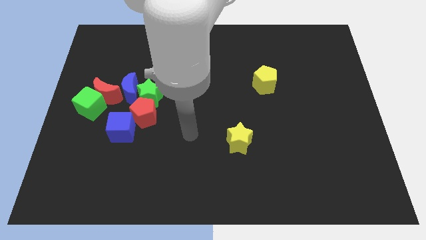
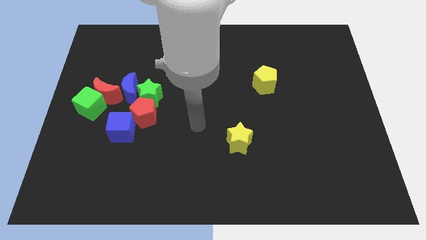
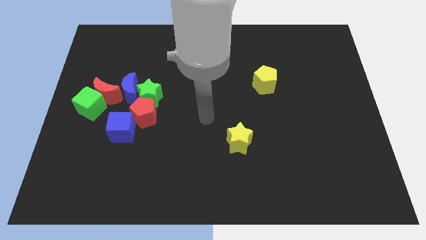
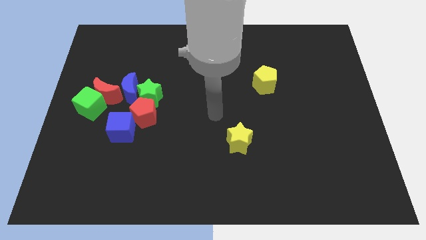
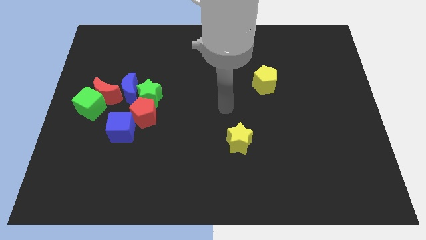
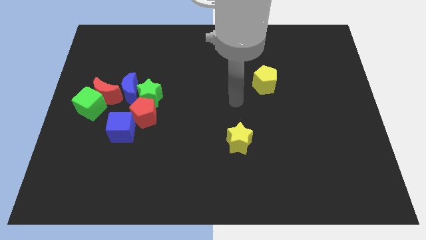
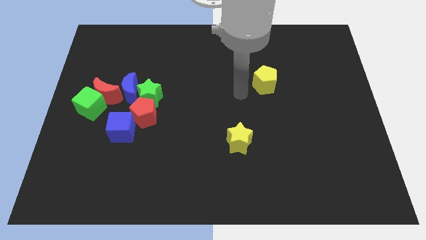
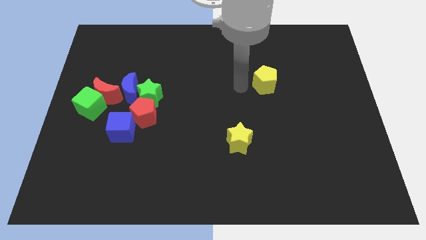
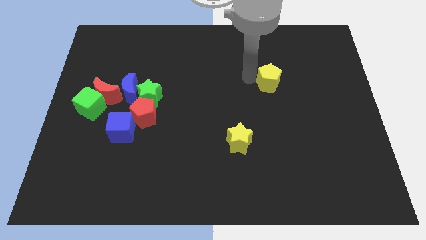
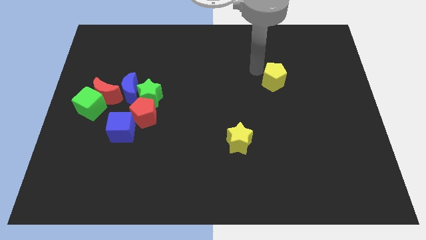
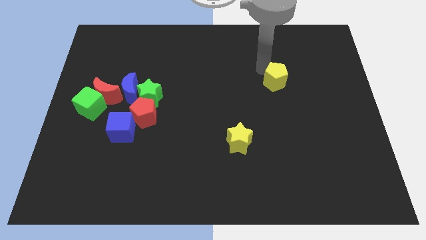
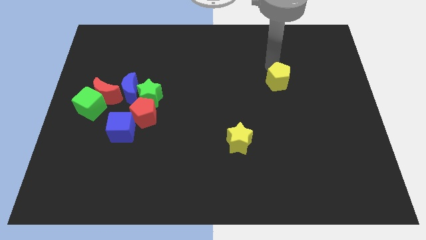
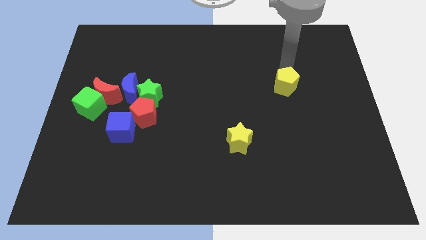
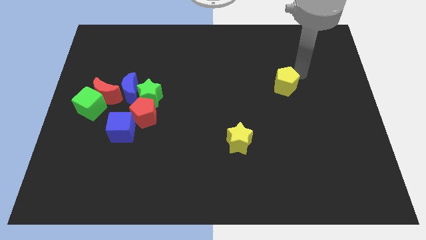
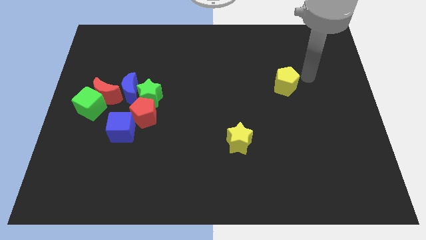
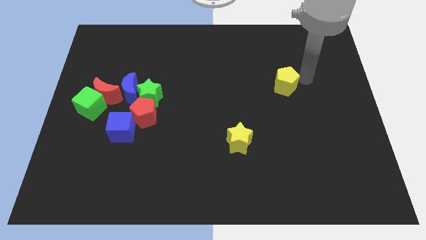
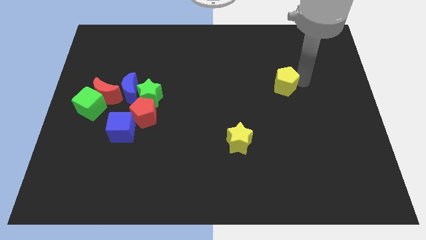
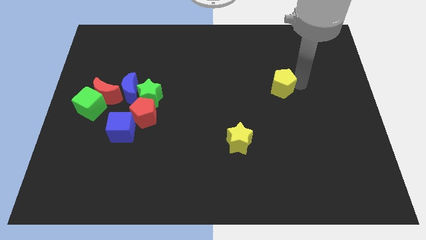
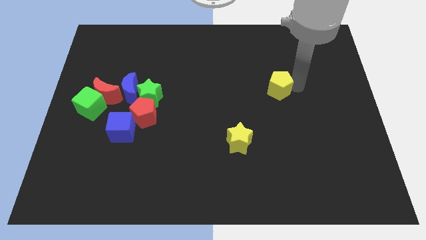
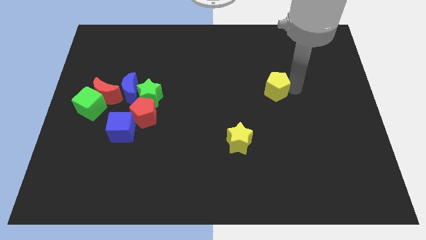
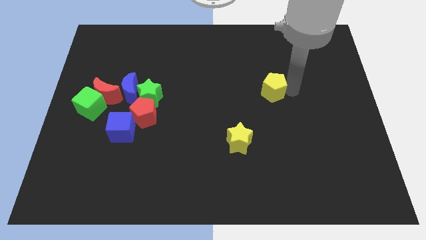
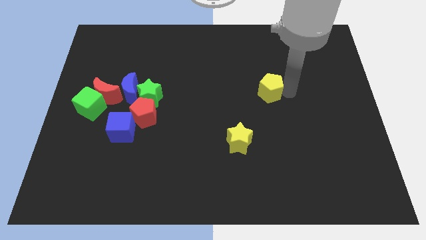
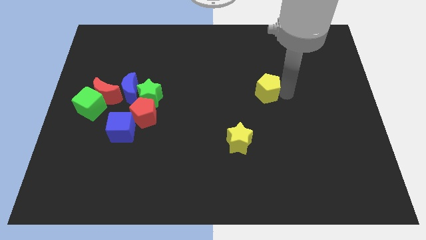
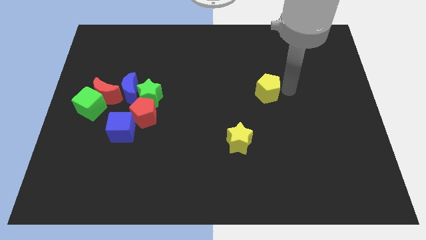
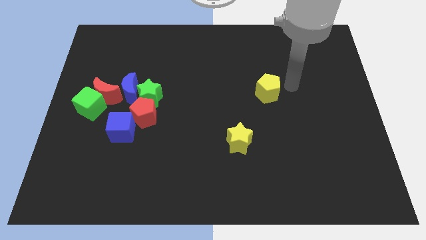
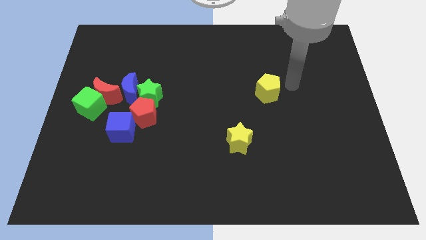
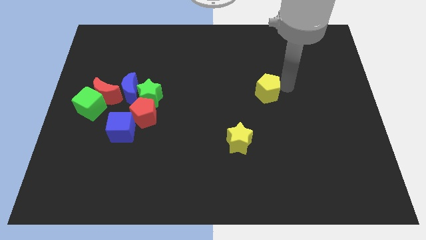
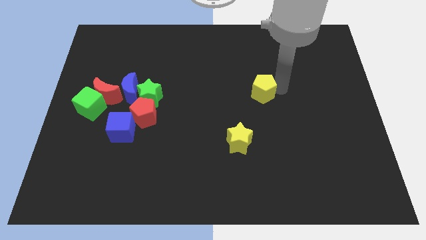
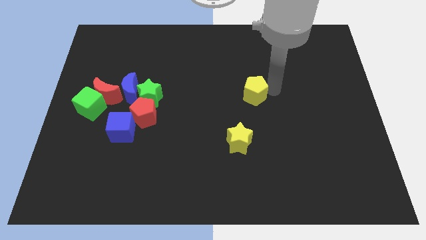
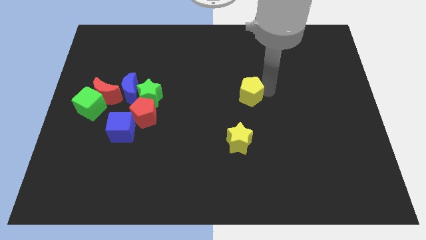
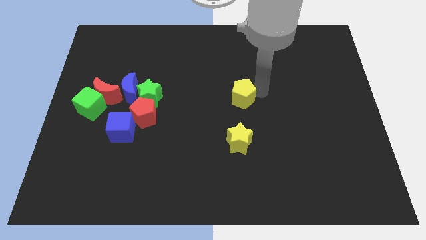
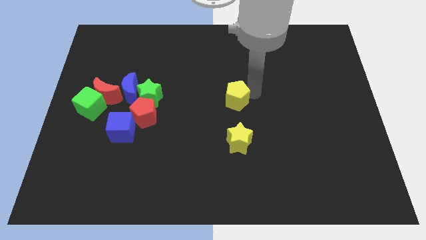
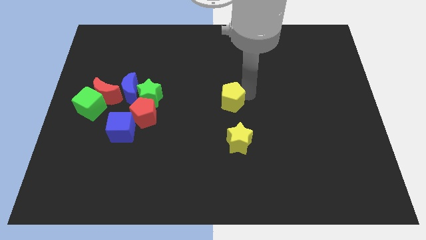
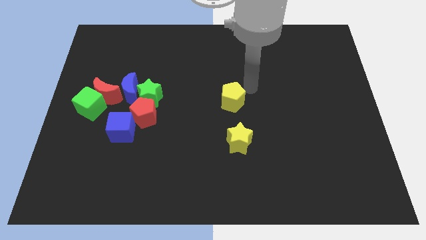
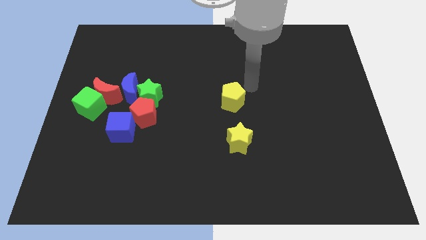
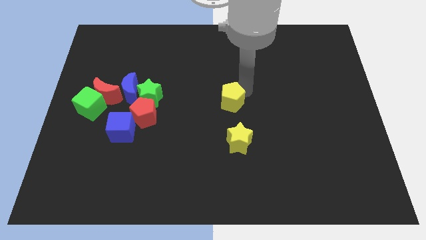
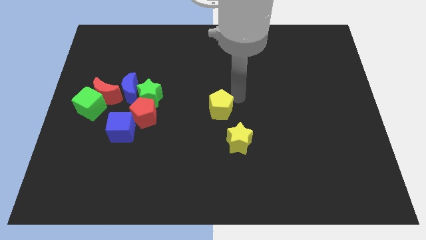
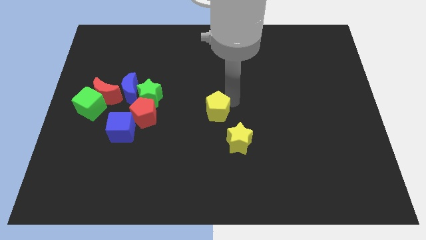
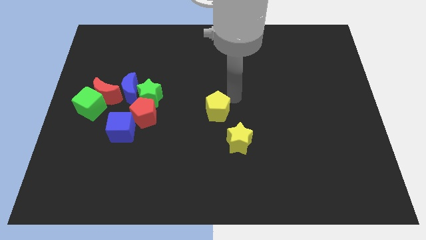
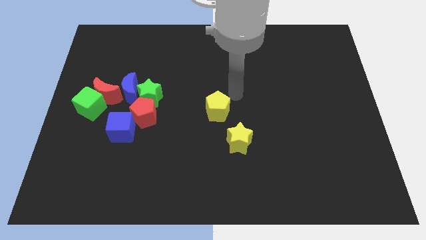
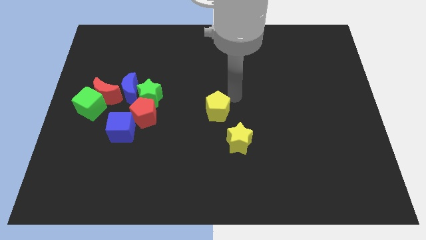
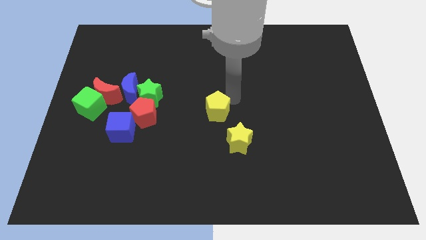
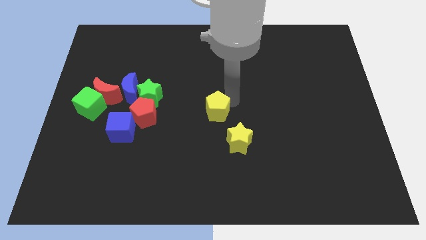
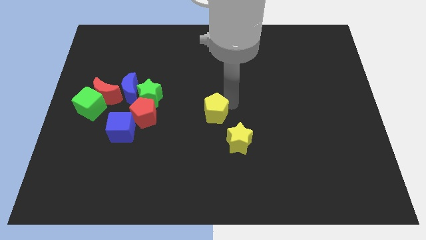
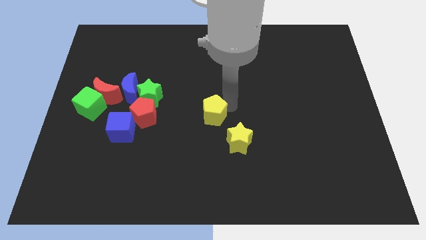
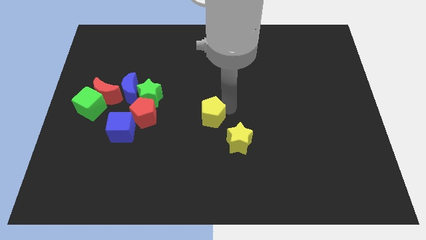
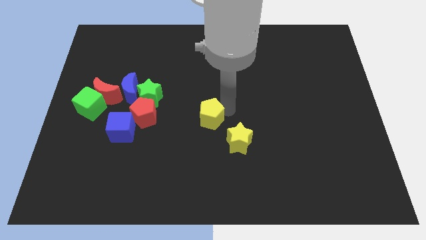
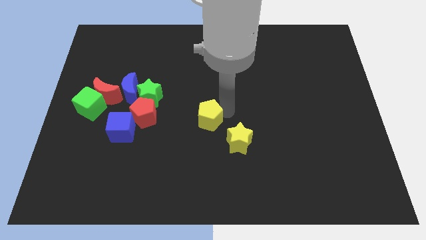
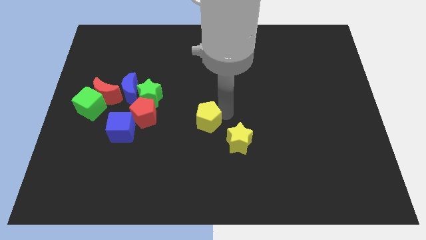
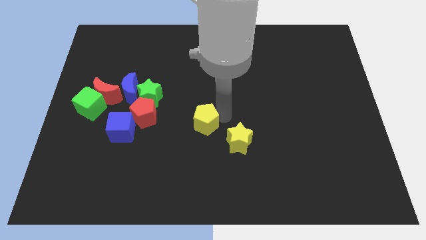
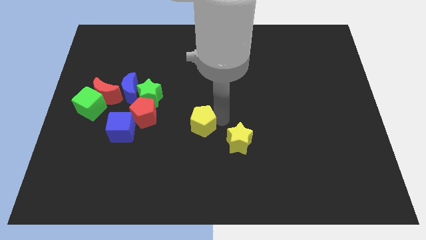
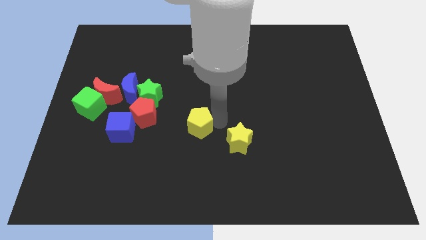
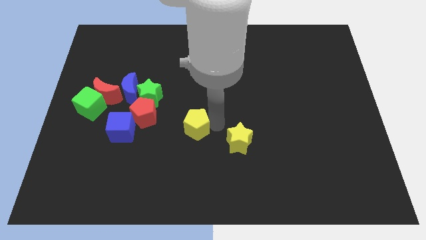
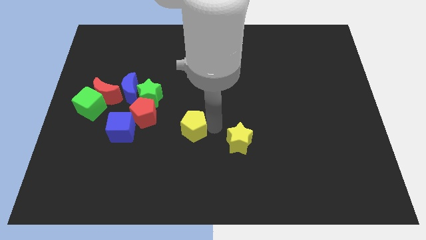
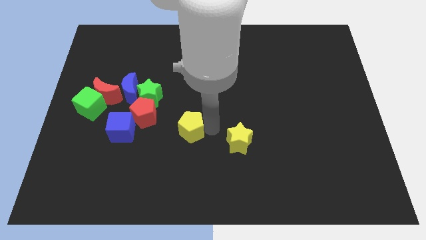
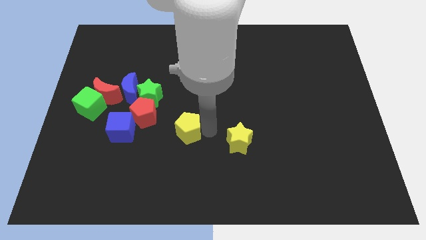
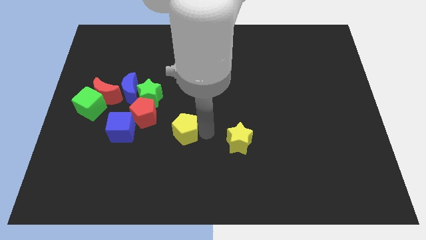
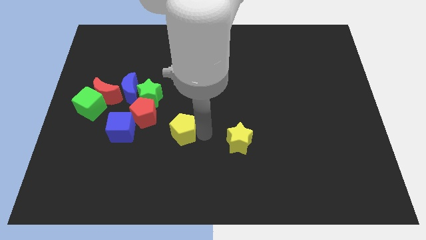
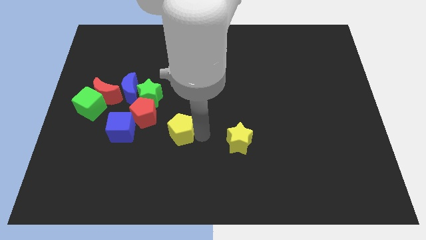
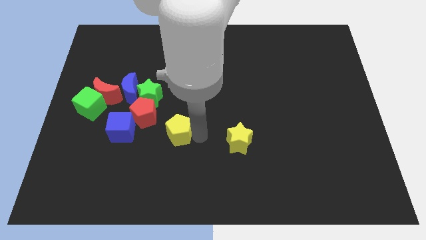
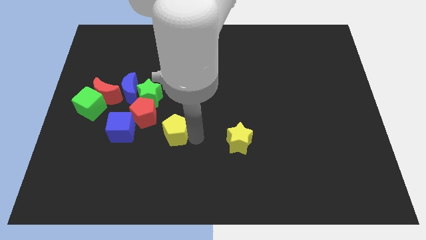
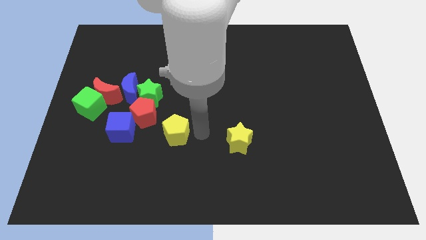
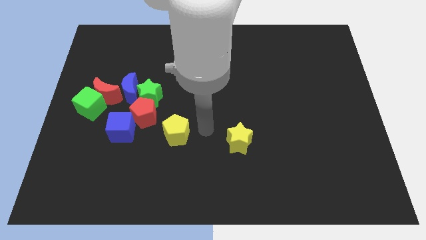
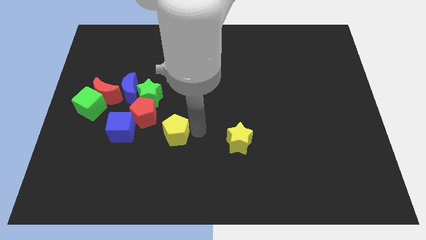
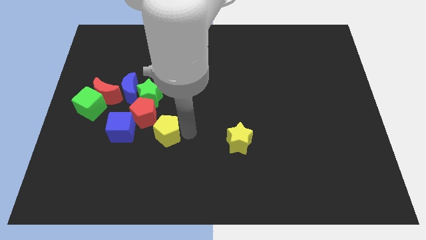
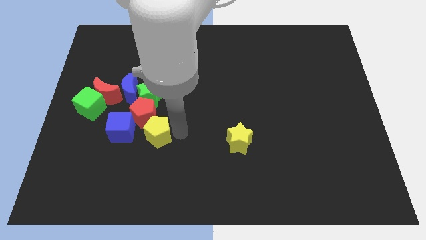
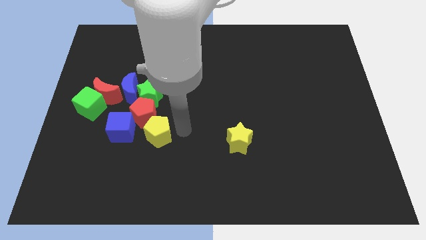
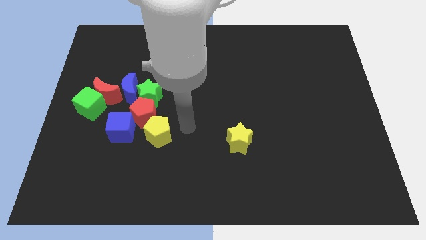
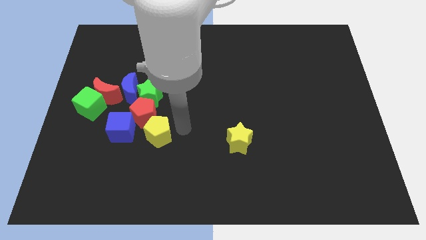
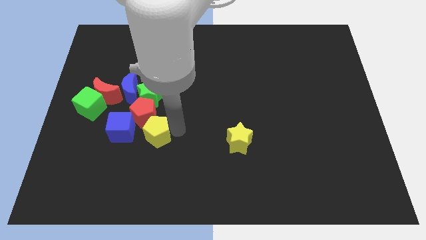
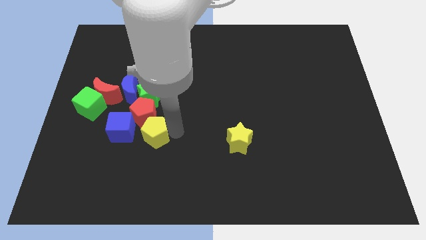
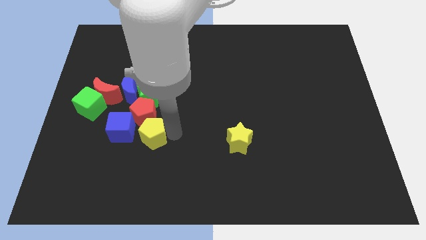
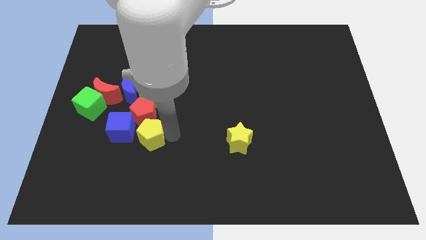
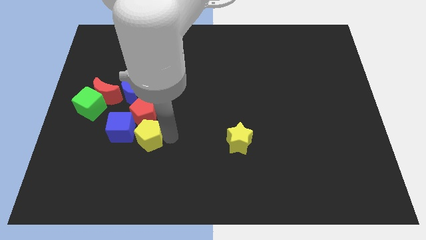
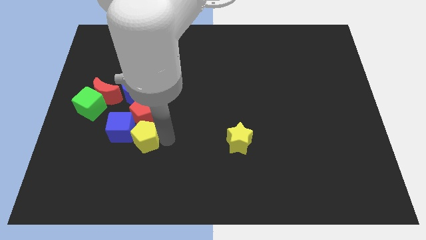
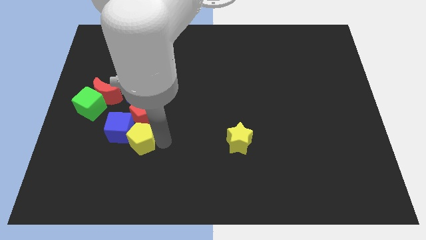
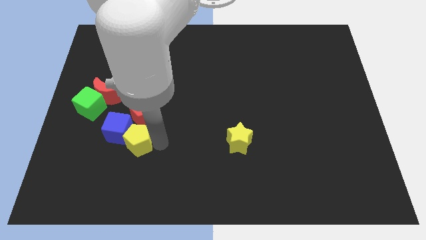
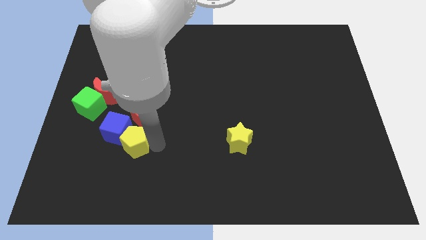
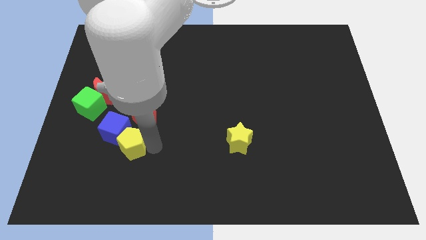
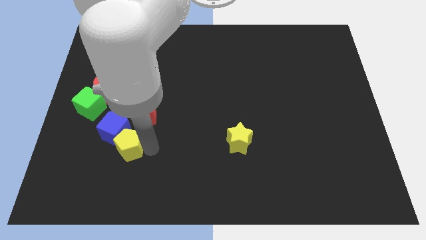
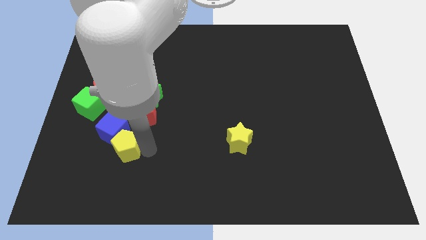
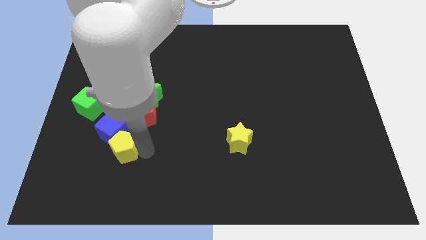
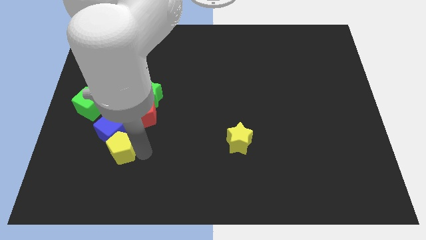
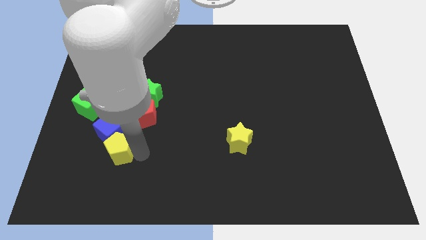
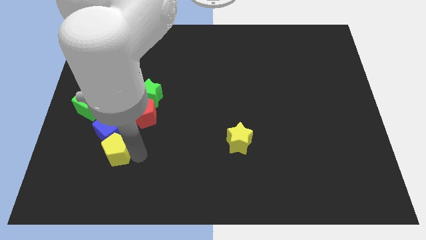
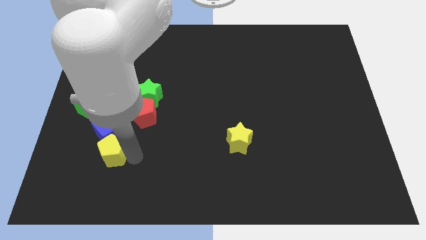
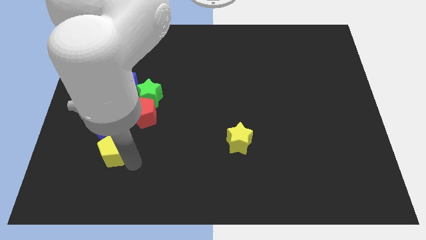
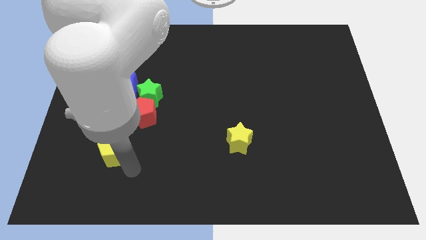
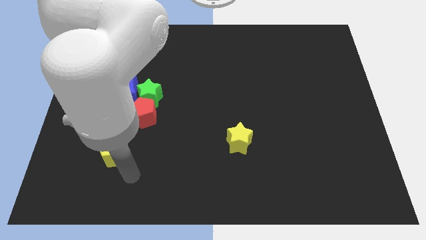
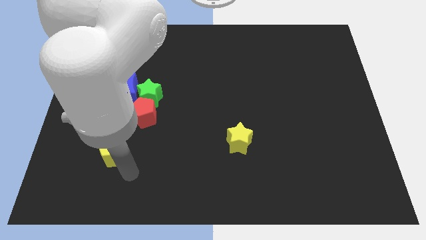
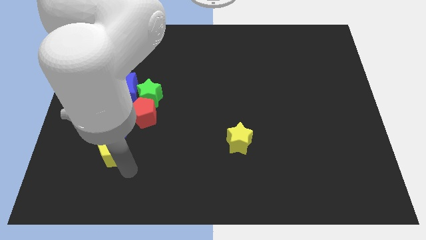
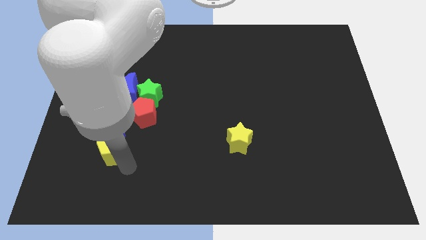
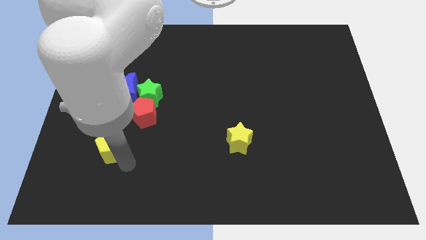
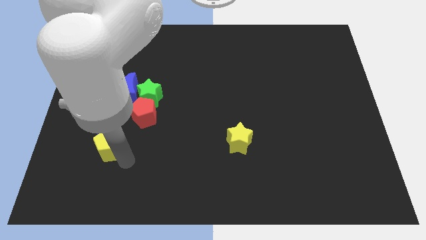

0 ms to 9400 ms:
push the yellow pentagon to the bottom of the red moon
